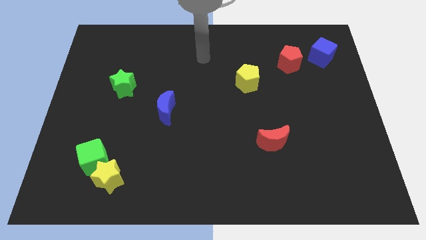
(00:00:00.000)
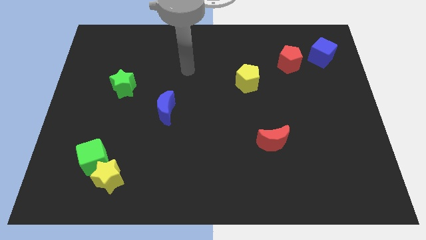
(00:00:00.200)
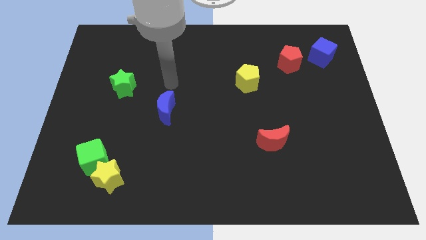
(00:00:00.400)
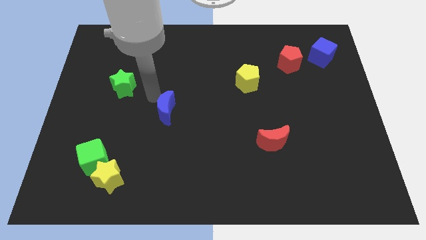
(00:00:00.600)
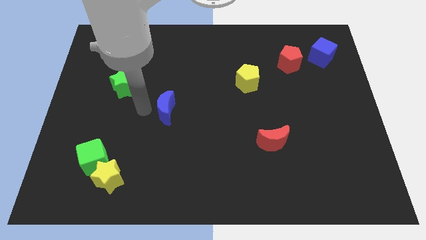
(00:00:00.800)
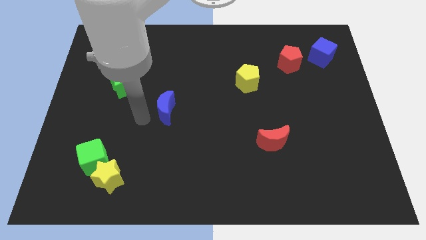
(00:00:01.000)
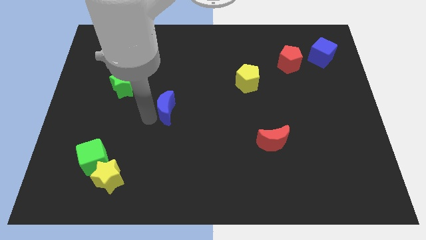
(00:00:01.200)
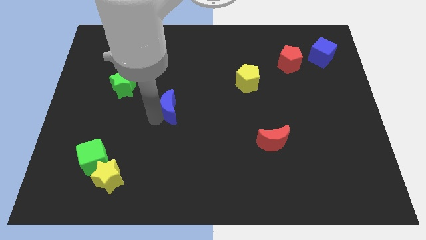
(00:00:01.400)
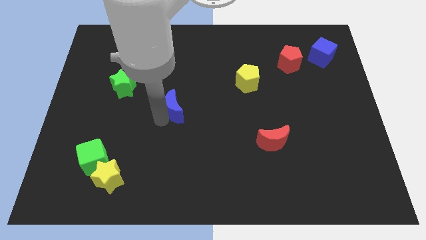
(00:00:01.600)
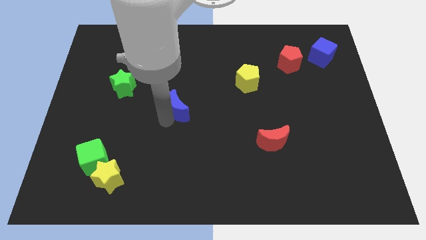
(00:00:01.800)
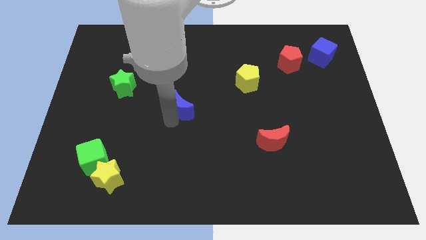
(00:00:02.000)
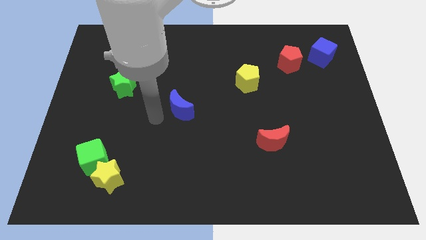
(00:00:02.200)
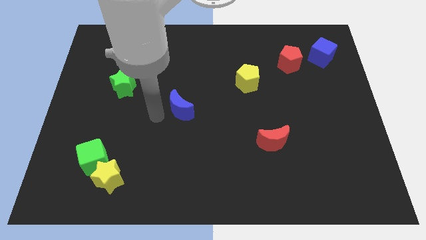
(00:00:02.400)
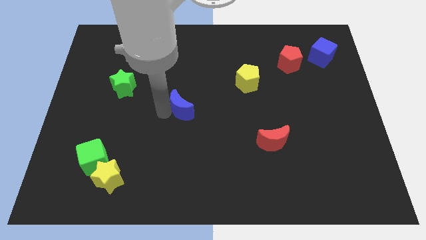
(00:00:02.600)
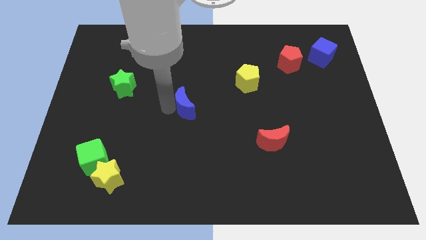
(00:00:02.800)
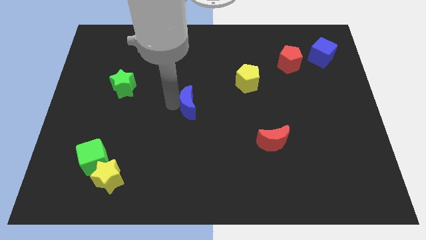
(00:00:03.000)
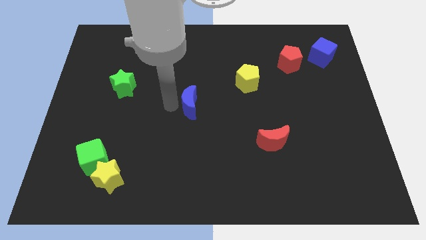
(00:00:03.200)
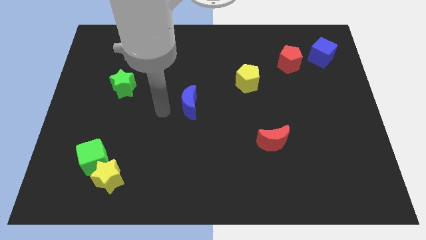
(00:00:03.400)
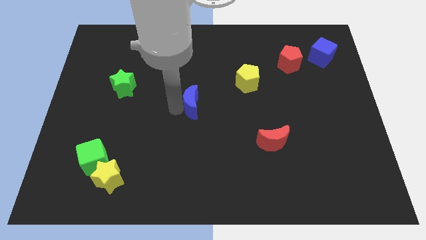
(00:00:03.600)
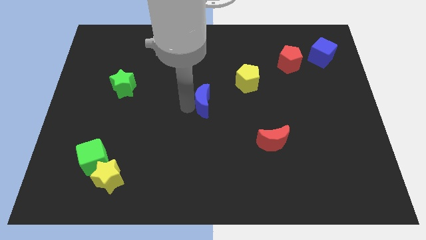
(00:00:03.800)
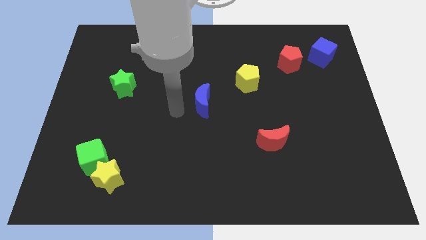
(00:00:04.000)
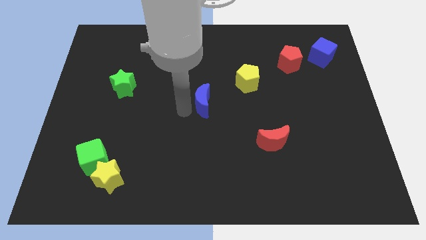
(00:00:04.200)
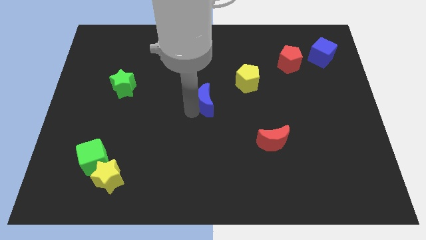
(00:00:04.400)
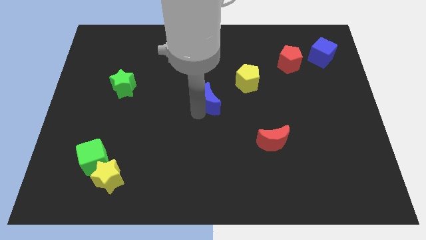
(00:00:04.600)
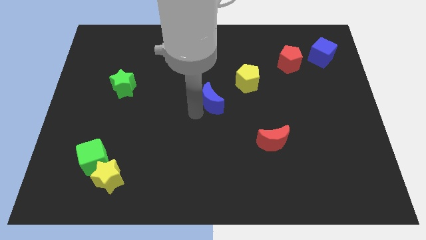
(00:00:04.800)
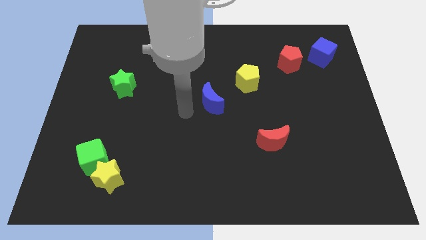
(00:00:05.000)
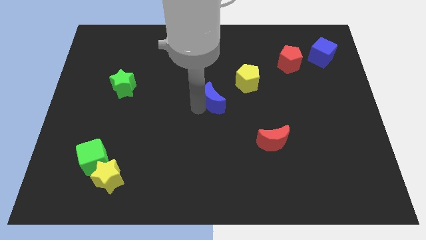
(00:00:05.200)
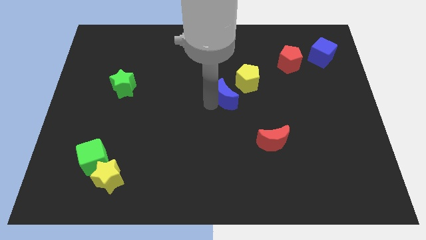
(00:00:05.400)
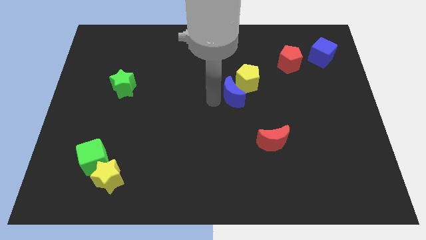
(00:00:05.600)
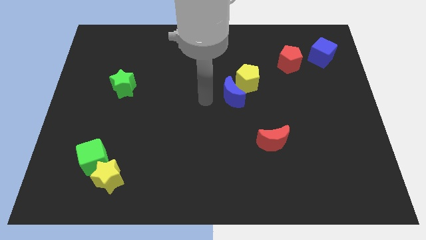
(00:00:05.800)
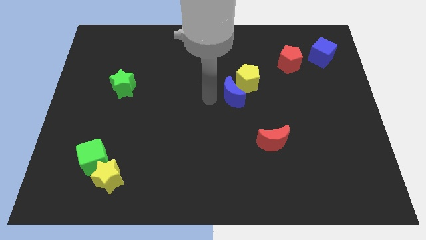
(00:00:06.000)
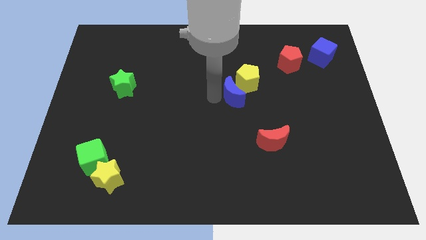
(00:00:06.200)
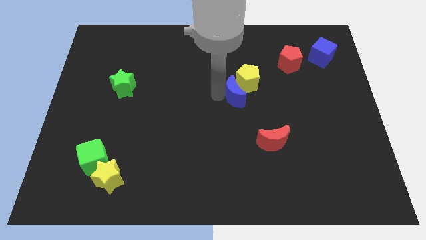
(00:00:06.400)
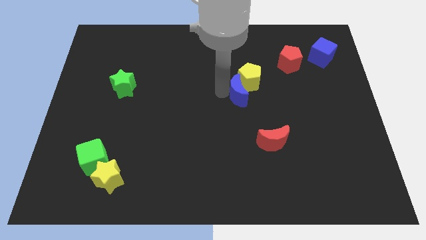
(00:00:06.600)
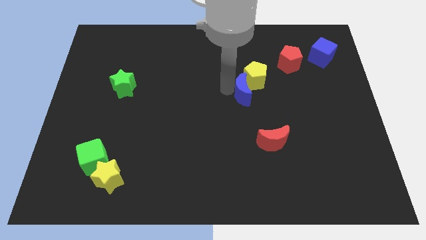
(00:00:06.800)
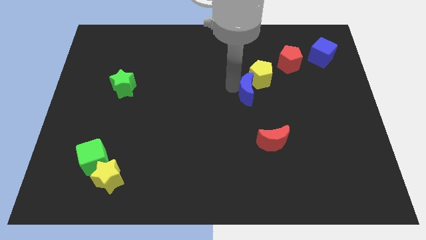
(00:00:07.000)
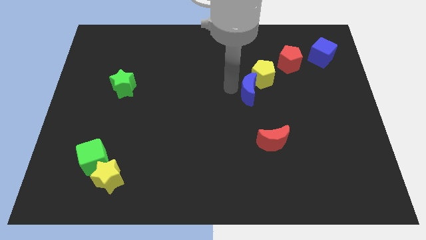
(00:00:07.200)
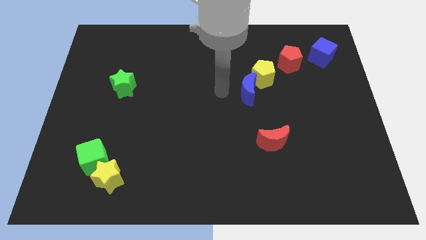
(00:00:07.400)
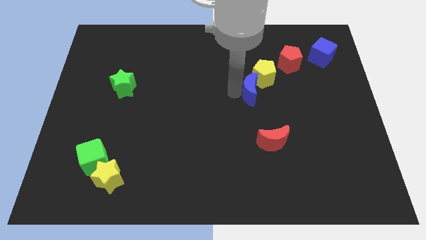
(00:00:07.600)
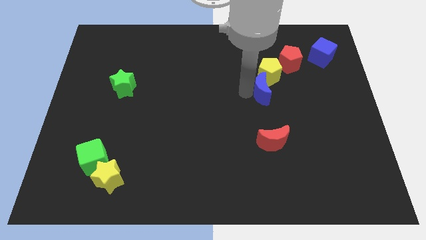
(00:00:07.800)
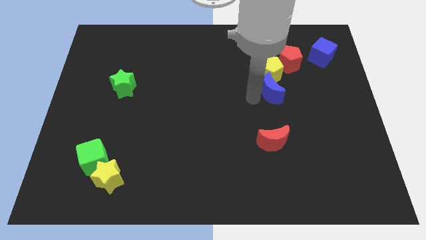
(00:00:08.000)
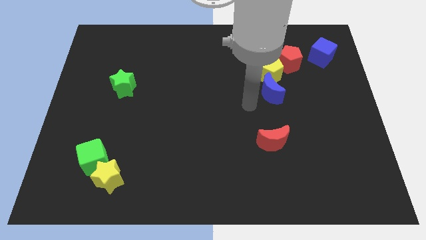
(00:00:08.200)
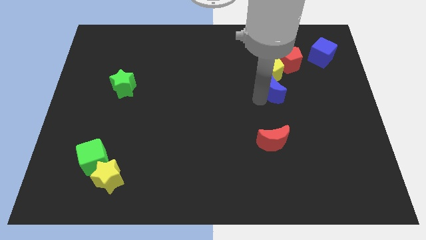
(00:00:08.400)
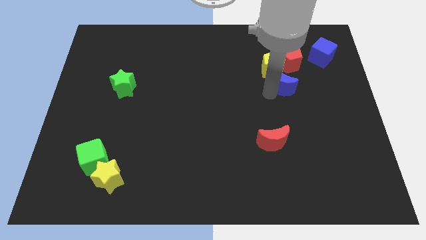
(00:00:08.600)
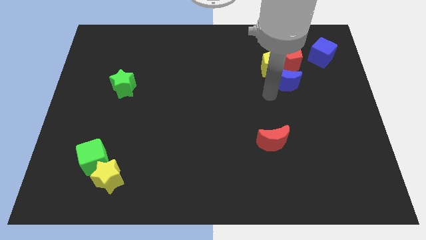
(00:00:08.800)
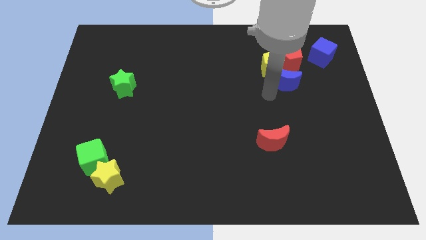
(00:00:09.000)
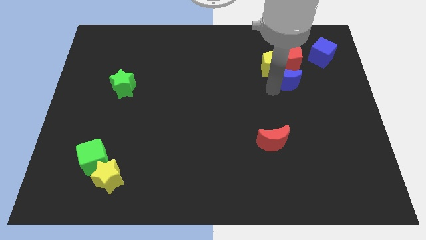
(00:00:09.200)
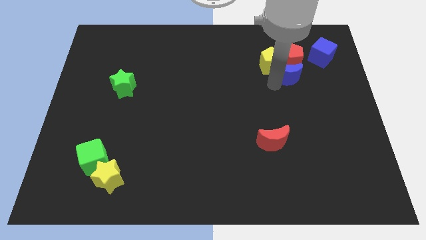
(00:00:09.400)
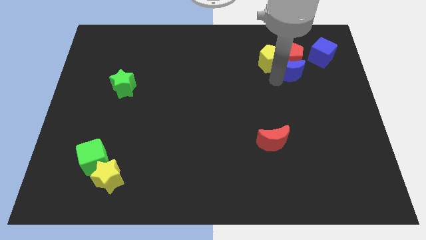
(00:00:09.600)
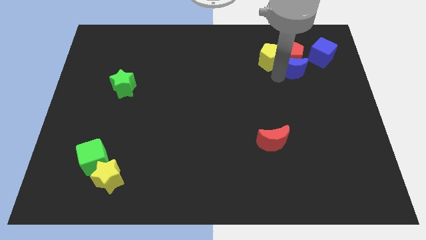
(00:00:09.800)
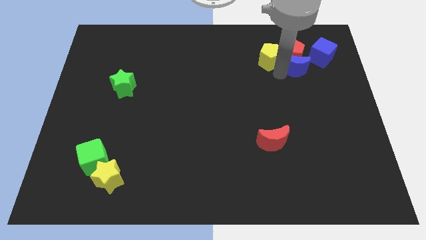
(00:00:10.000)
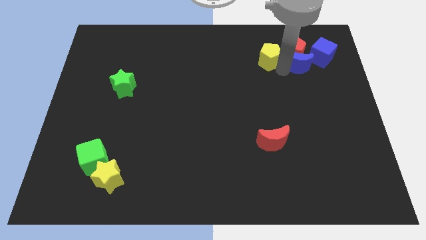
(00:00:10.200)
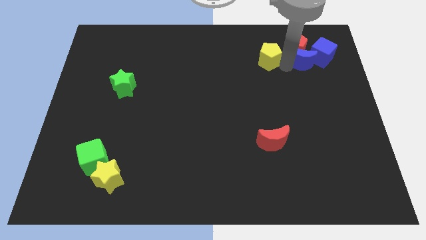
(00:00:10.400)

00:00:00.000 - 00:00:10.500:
move the blue moon towards the blue cube

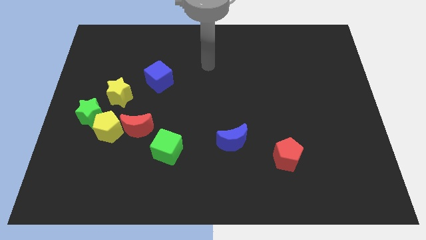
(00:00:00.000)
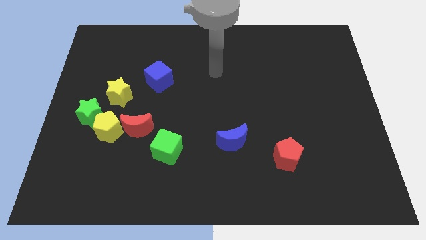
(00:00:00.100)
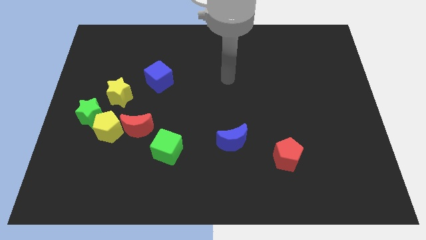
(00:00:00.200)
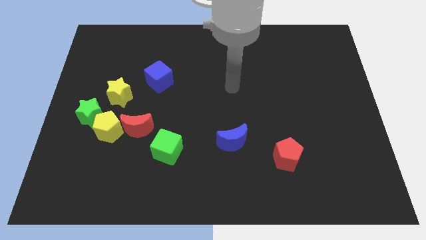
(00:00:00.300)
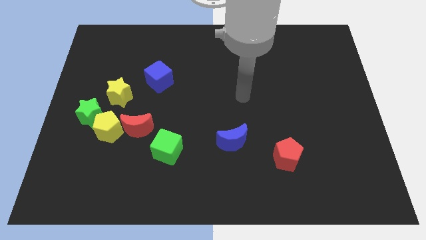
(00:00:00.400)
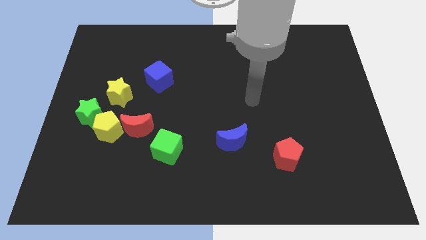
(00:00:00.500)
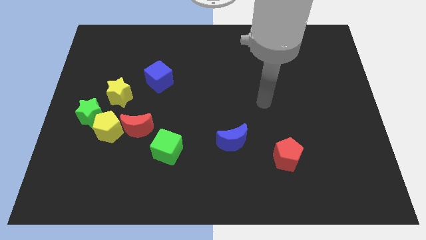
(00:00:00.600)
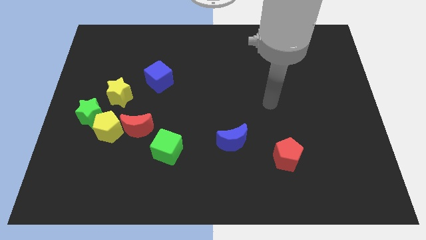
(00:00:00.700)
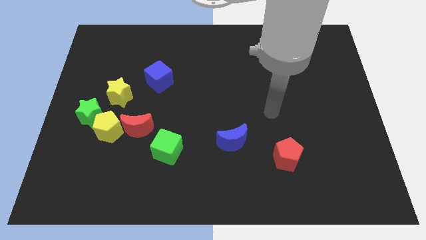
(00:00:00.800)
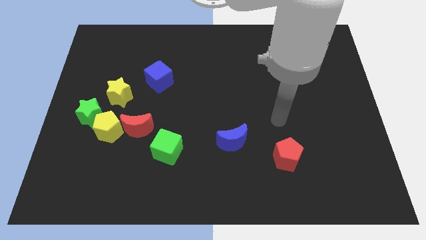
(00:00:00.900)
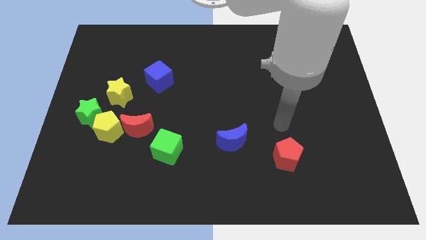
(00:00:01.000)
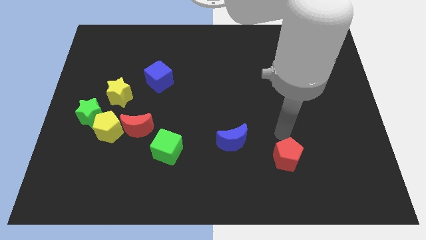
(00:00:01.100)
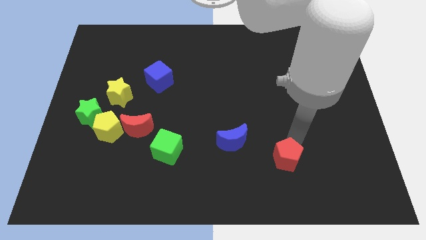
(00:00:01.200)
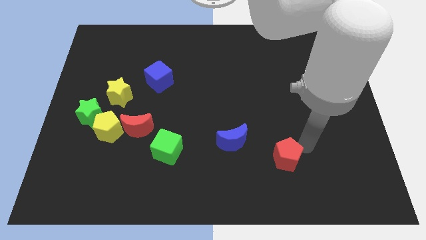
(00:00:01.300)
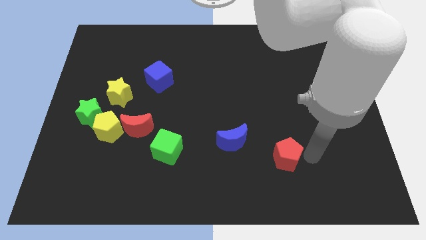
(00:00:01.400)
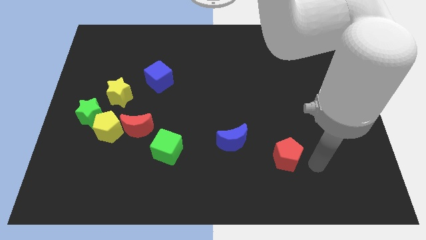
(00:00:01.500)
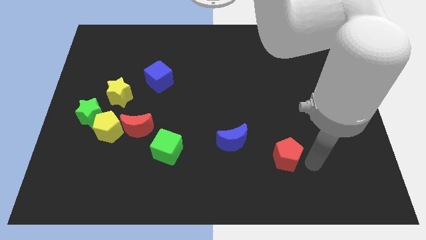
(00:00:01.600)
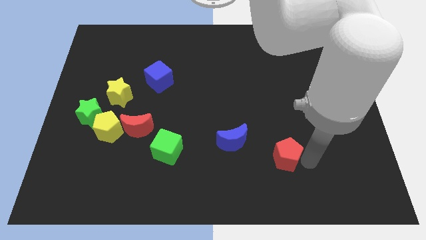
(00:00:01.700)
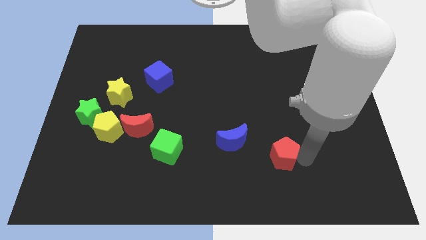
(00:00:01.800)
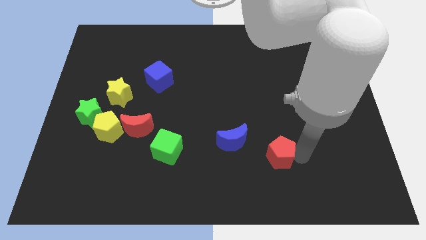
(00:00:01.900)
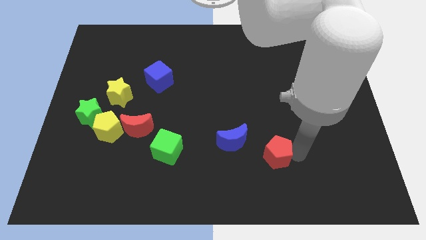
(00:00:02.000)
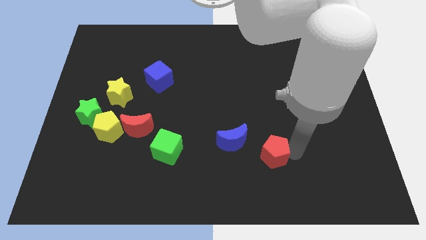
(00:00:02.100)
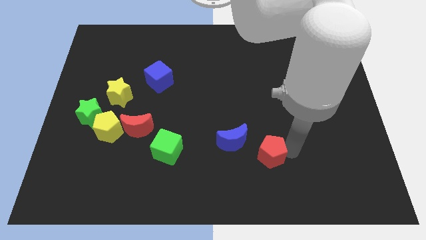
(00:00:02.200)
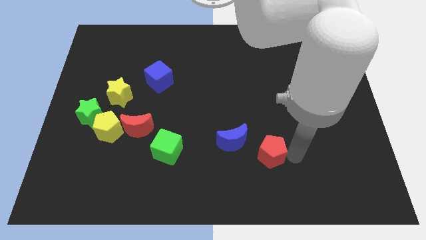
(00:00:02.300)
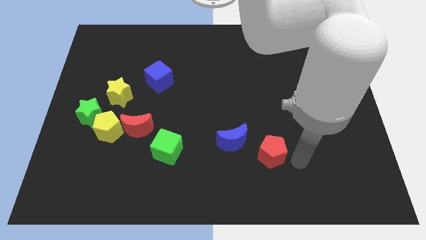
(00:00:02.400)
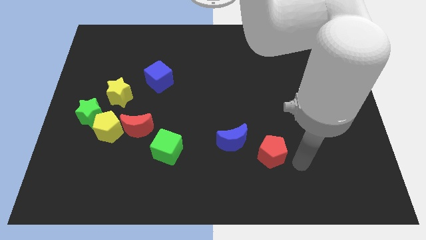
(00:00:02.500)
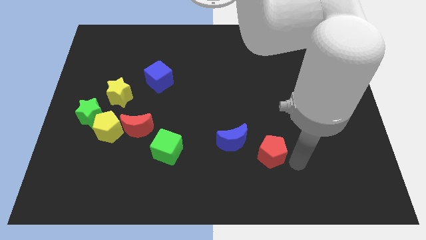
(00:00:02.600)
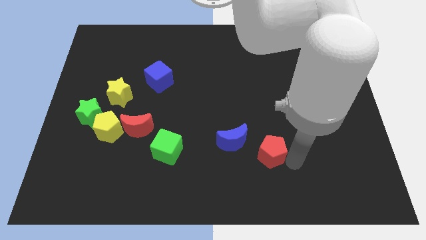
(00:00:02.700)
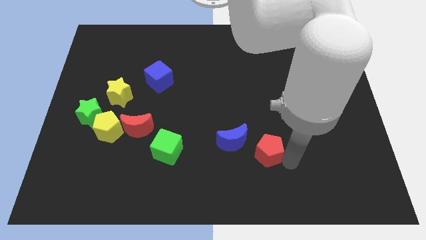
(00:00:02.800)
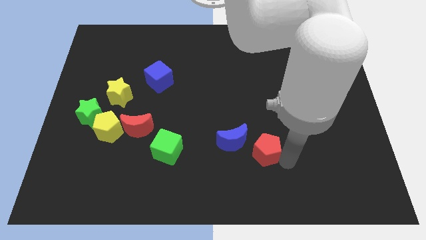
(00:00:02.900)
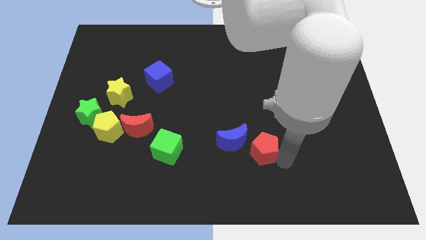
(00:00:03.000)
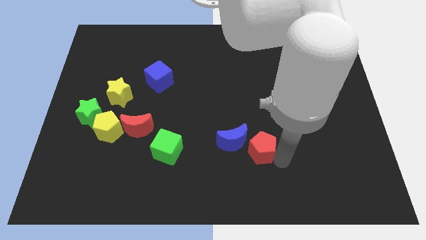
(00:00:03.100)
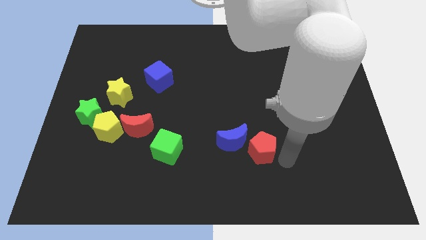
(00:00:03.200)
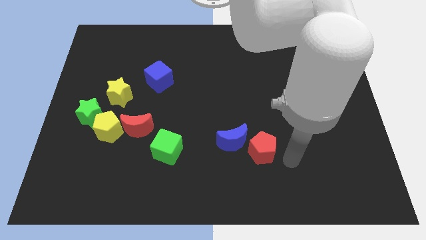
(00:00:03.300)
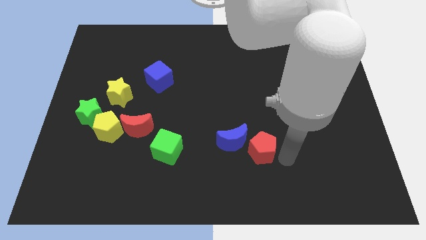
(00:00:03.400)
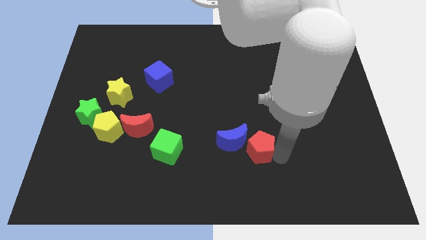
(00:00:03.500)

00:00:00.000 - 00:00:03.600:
move the red pentagon towards the blue moon
